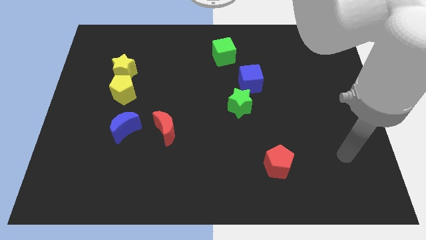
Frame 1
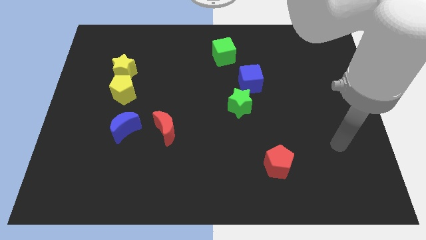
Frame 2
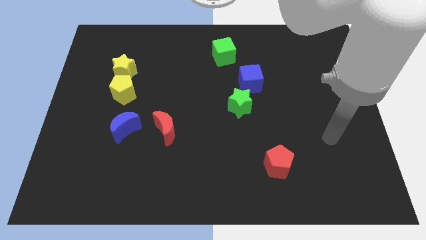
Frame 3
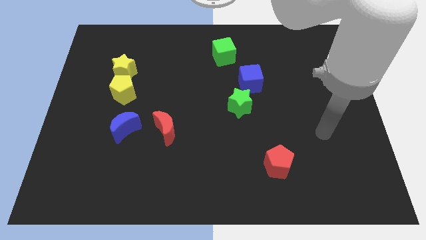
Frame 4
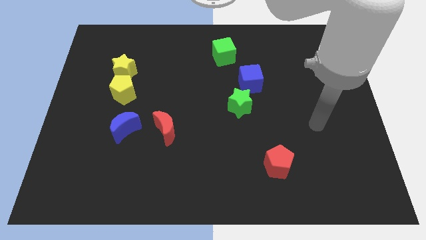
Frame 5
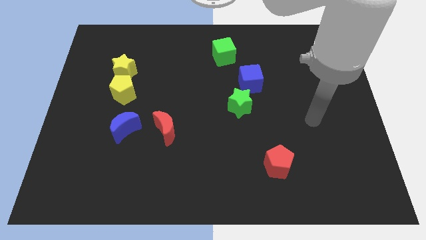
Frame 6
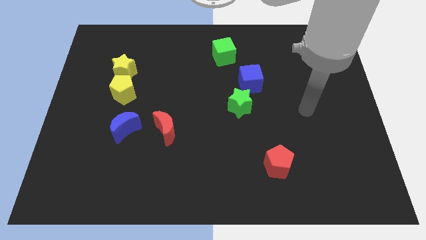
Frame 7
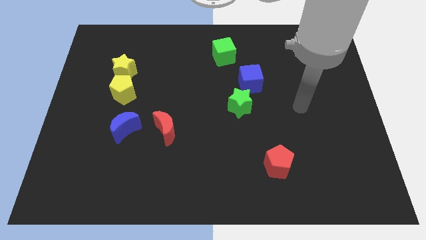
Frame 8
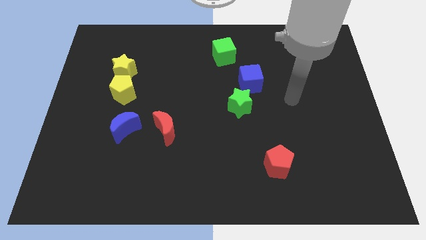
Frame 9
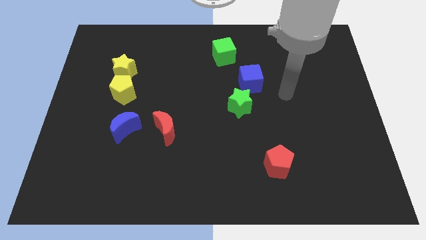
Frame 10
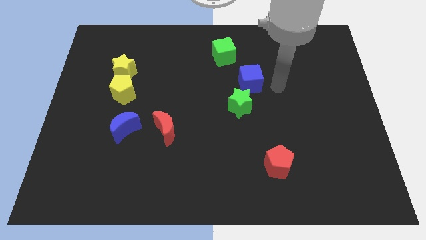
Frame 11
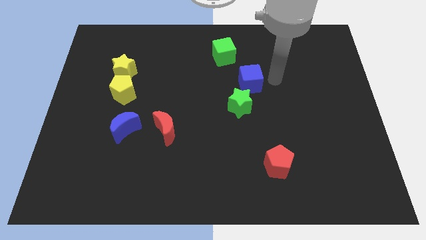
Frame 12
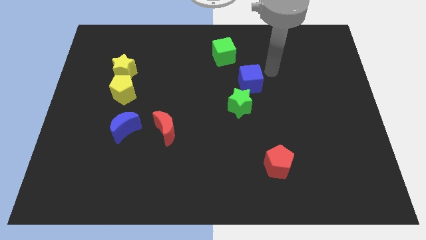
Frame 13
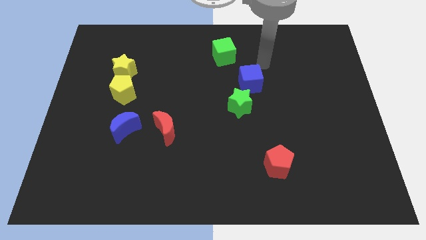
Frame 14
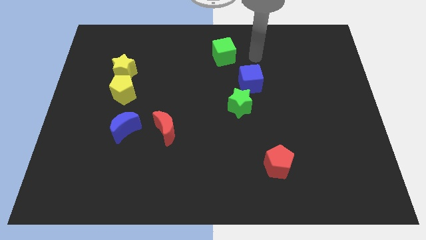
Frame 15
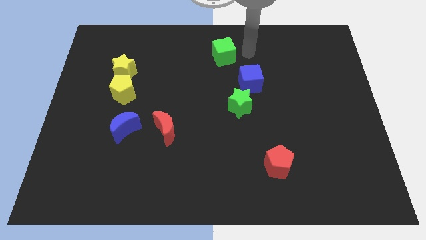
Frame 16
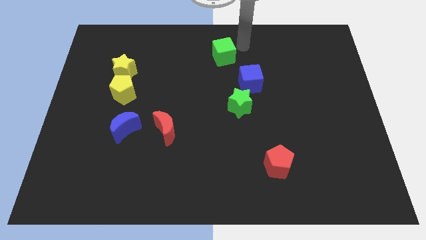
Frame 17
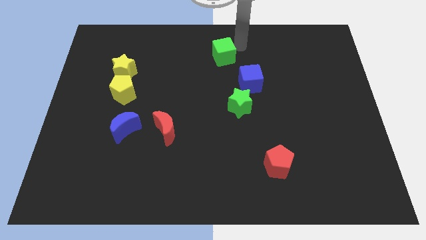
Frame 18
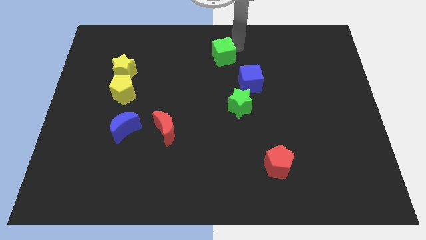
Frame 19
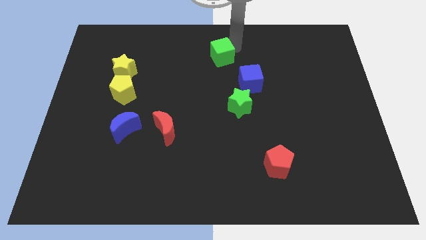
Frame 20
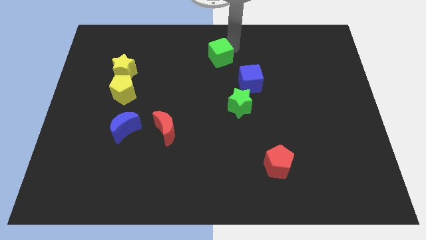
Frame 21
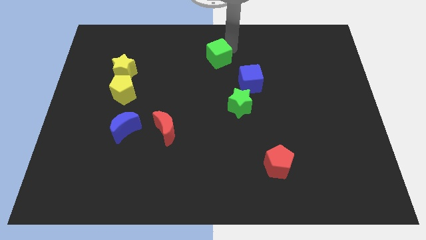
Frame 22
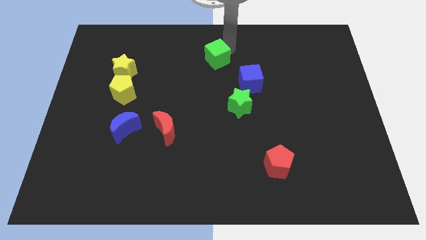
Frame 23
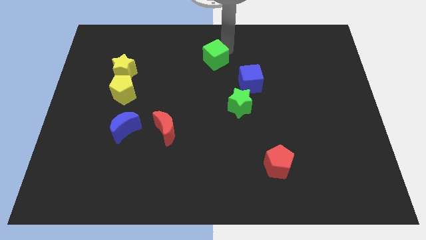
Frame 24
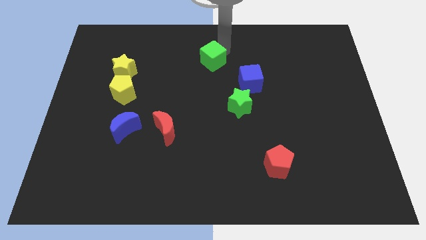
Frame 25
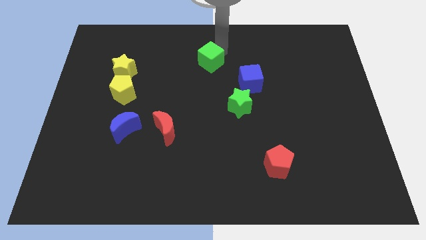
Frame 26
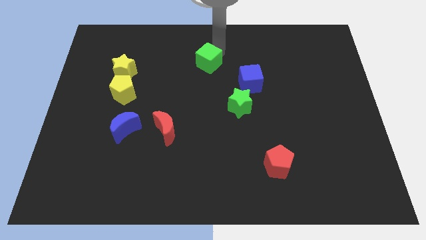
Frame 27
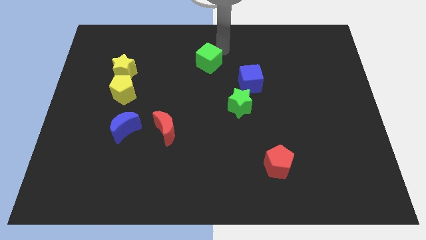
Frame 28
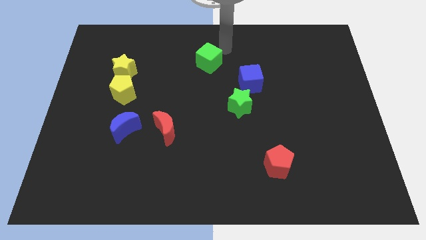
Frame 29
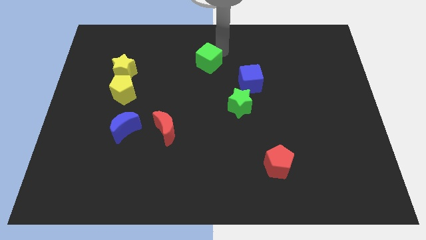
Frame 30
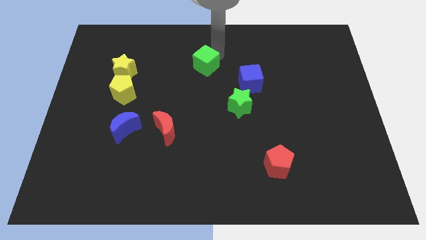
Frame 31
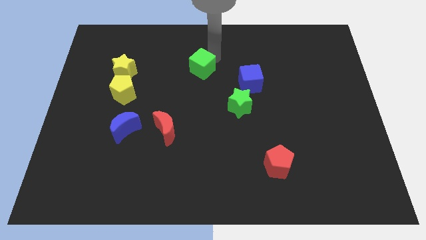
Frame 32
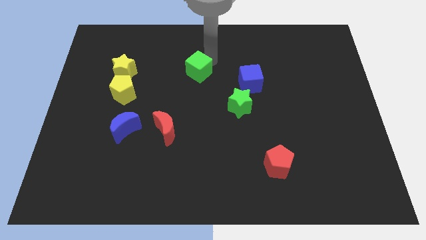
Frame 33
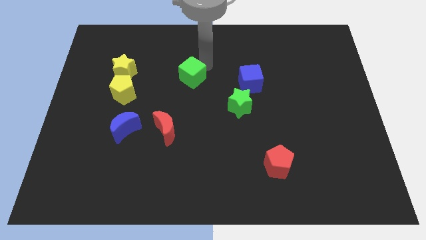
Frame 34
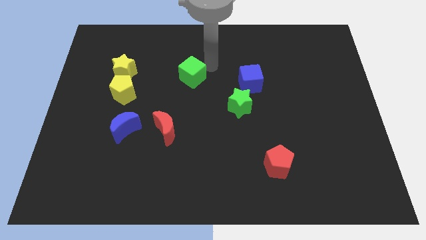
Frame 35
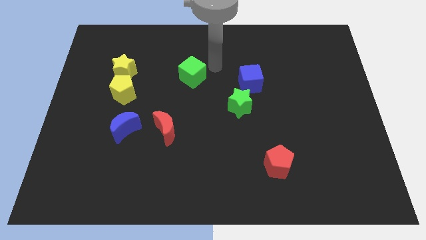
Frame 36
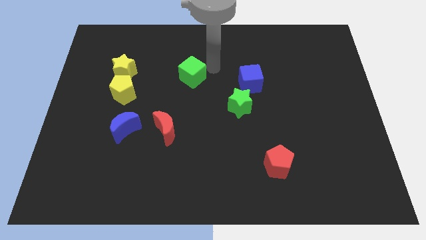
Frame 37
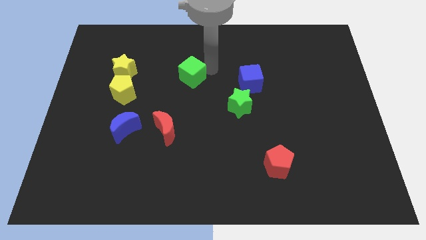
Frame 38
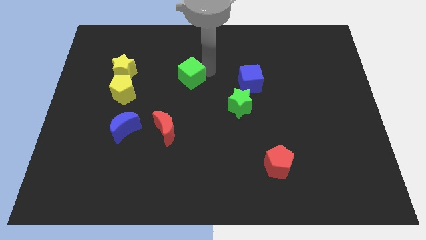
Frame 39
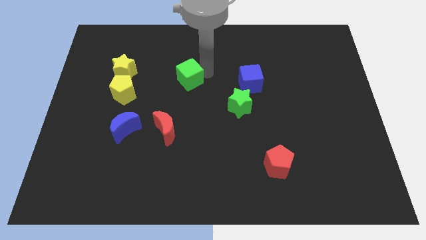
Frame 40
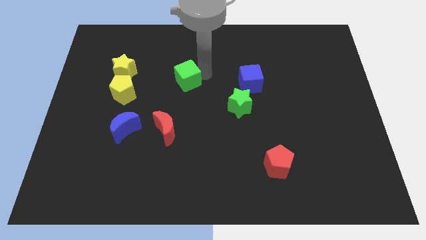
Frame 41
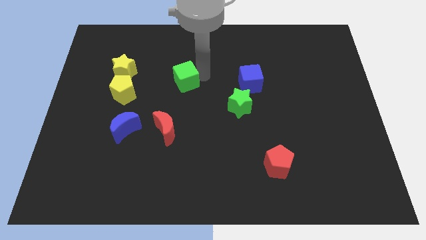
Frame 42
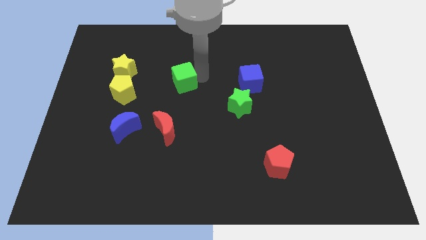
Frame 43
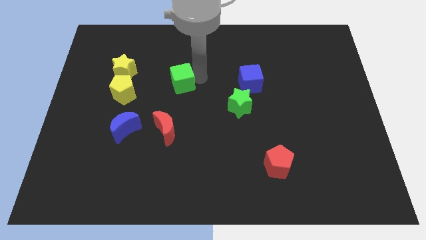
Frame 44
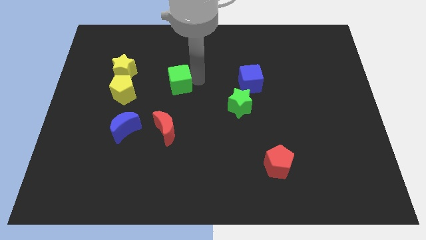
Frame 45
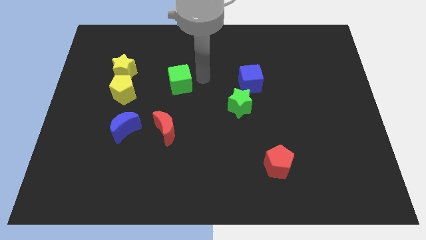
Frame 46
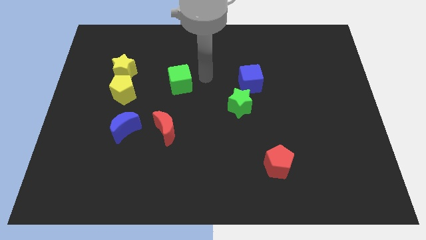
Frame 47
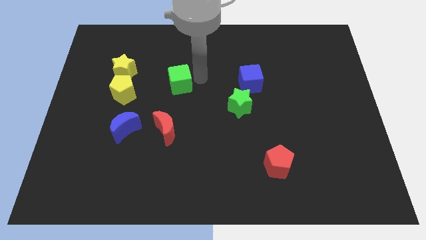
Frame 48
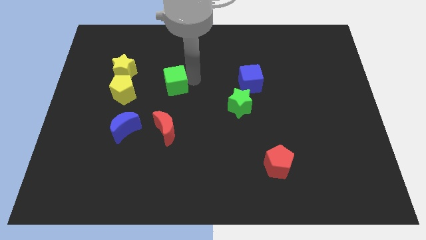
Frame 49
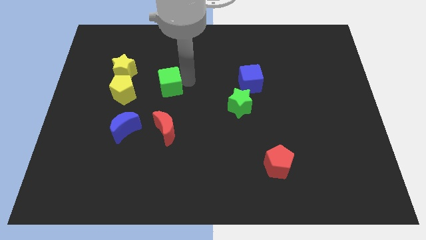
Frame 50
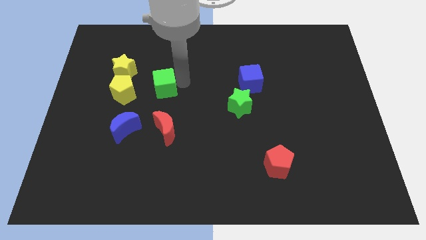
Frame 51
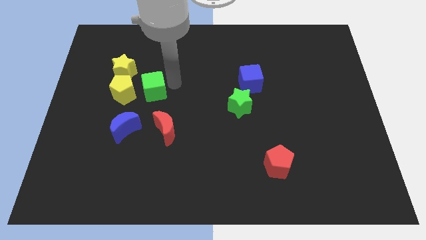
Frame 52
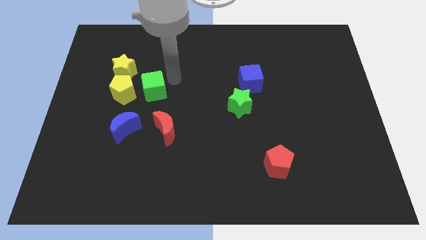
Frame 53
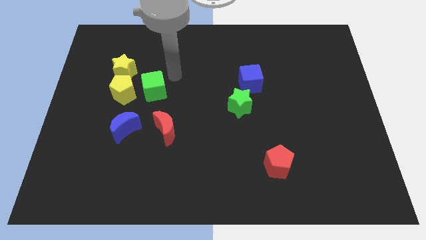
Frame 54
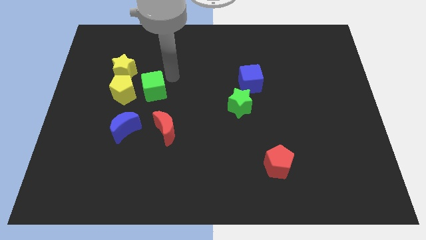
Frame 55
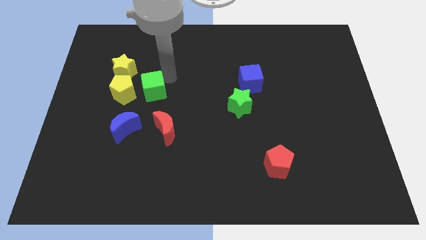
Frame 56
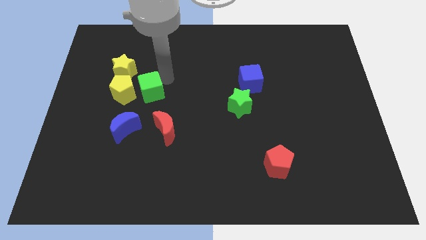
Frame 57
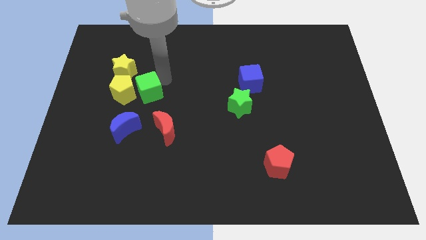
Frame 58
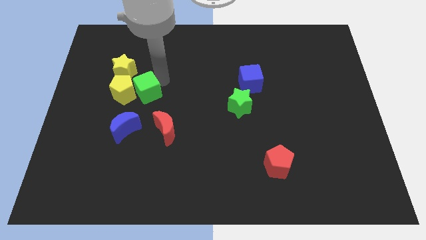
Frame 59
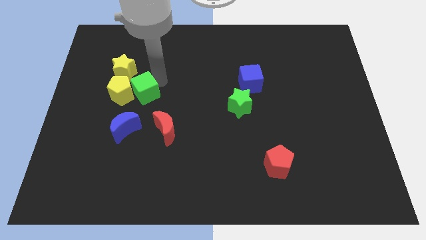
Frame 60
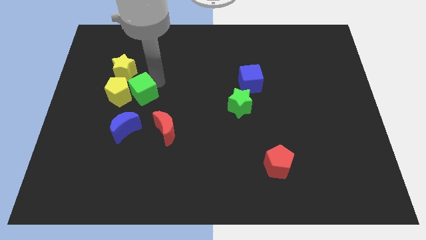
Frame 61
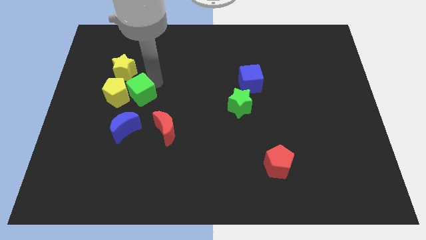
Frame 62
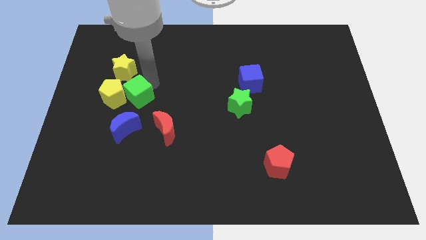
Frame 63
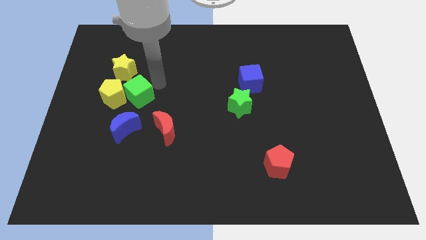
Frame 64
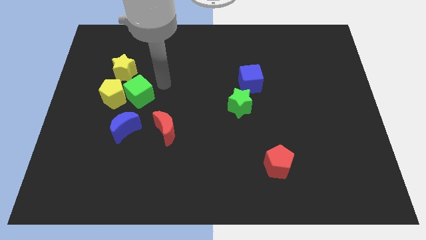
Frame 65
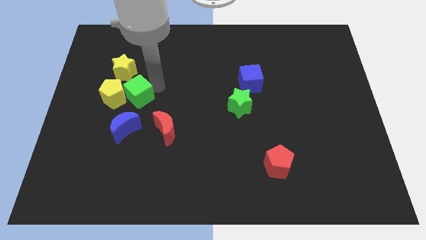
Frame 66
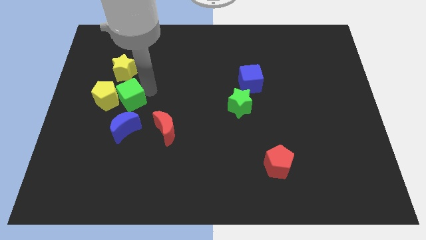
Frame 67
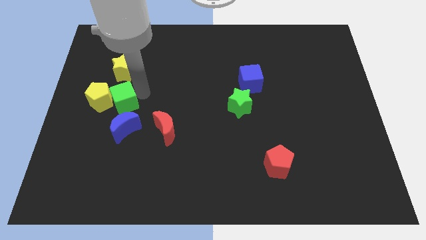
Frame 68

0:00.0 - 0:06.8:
push the green cube to the top left side of the blue moon
